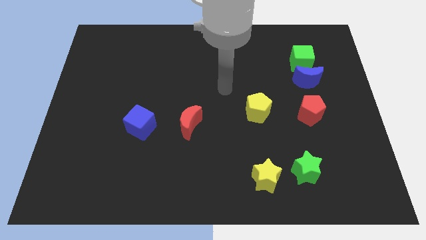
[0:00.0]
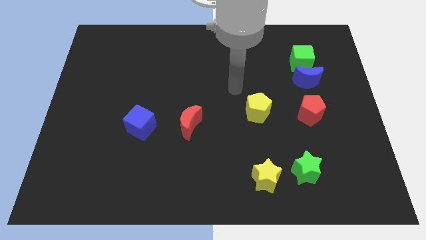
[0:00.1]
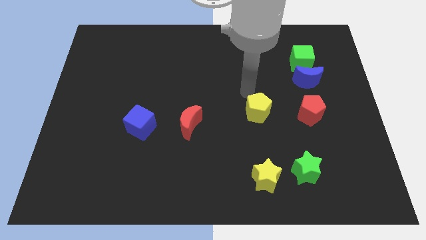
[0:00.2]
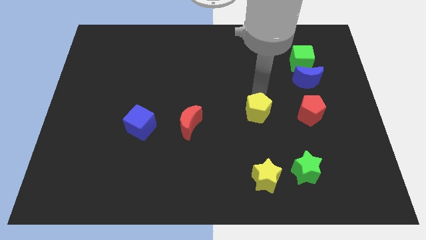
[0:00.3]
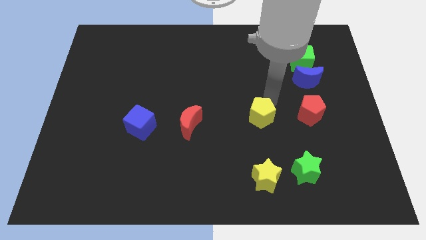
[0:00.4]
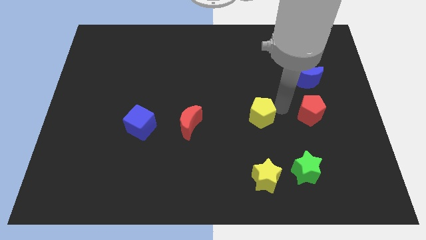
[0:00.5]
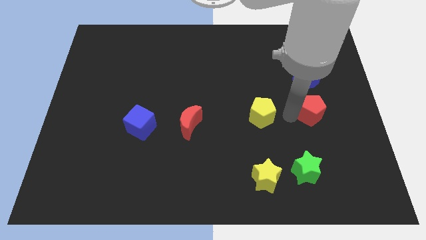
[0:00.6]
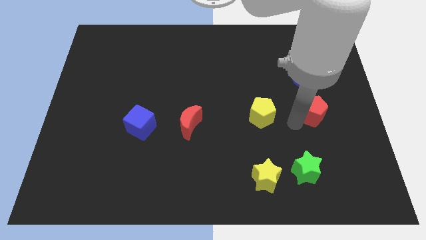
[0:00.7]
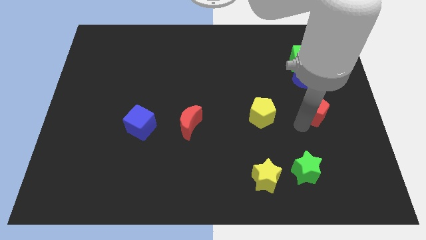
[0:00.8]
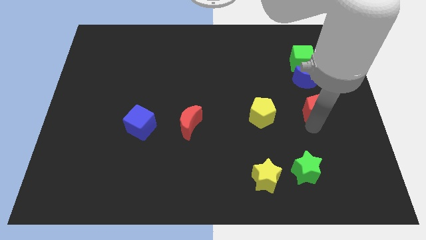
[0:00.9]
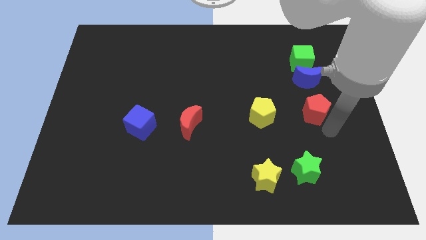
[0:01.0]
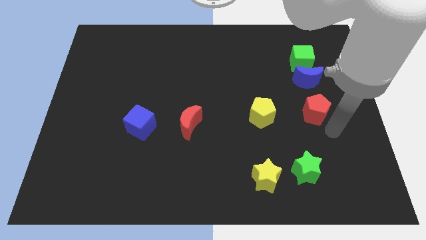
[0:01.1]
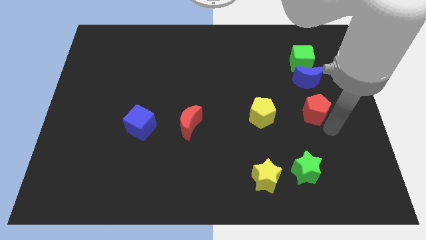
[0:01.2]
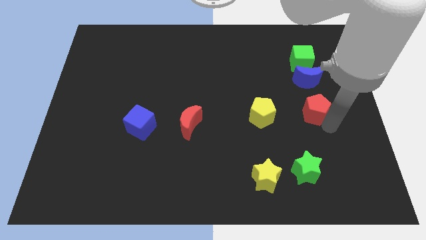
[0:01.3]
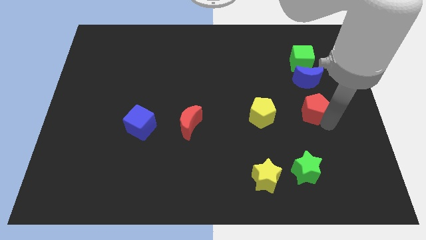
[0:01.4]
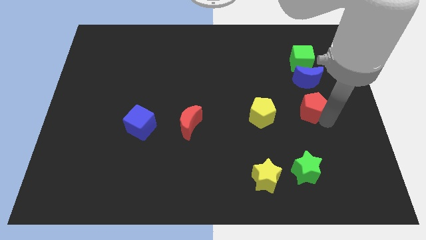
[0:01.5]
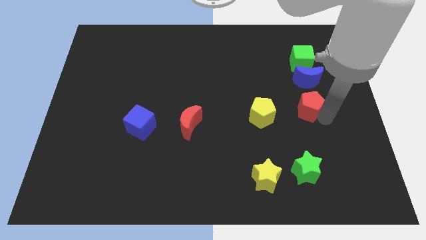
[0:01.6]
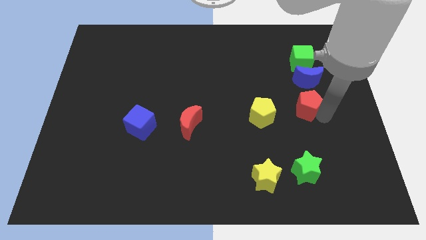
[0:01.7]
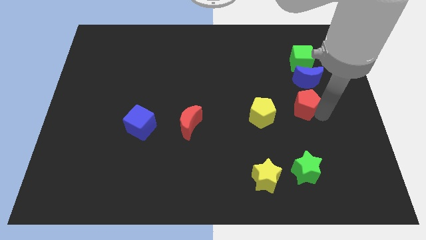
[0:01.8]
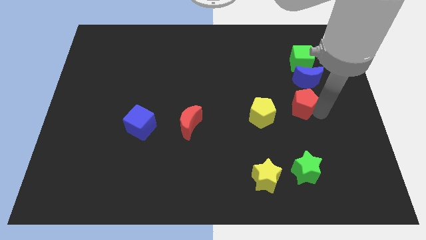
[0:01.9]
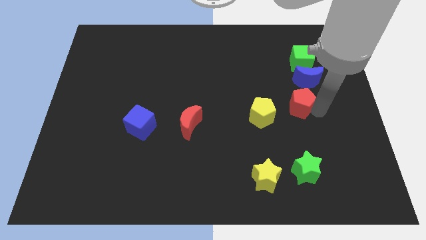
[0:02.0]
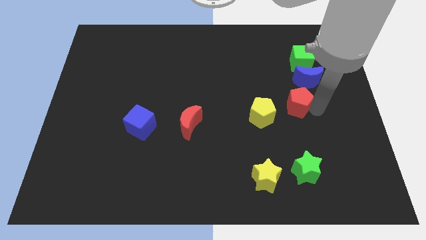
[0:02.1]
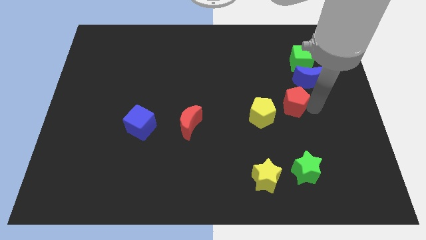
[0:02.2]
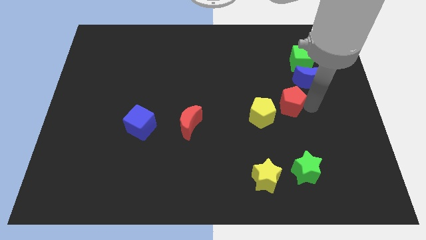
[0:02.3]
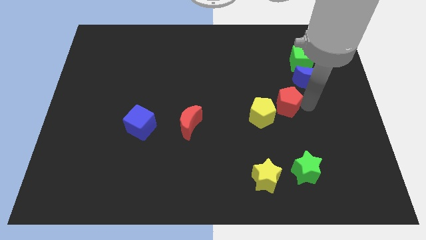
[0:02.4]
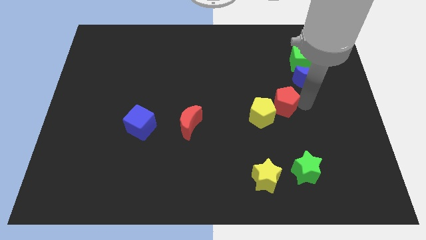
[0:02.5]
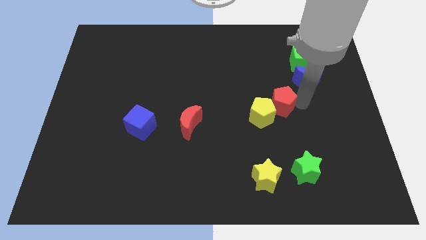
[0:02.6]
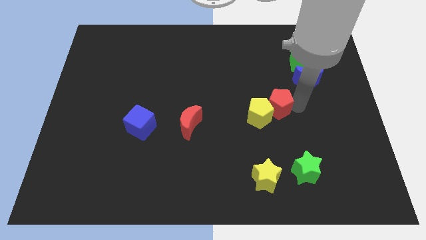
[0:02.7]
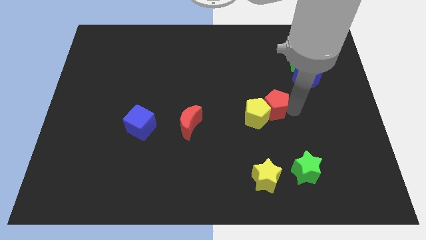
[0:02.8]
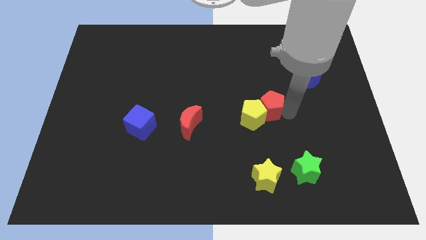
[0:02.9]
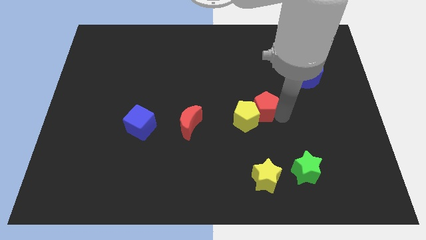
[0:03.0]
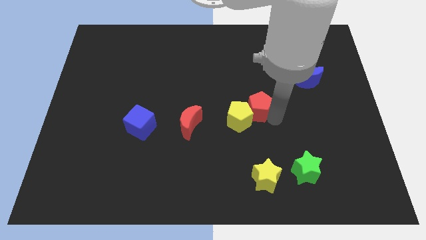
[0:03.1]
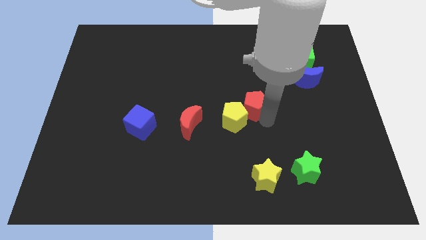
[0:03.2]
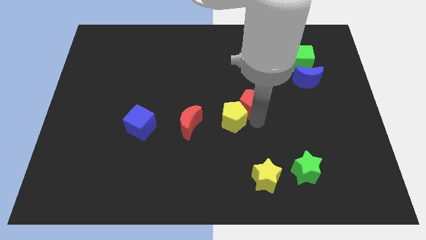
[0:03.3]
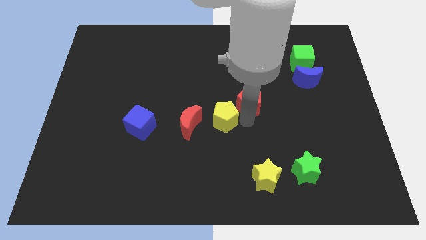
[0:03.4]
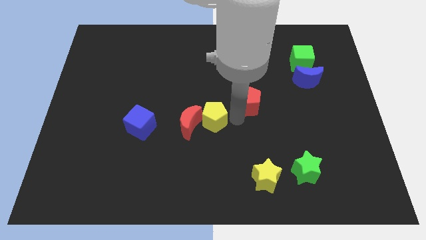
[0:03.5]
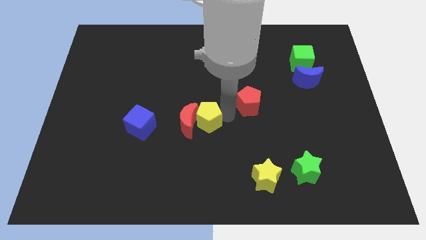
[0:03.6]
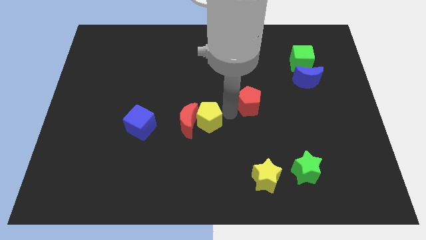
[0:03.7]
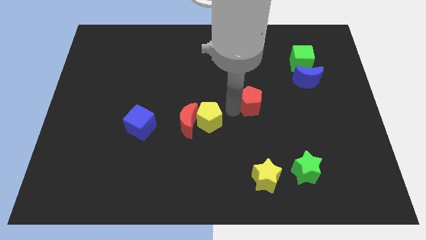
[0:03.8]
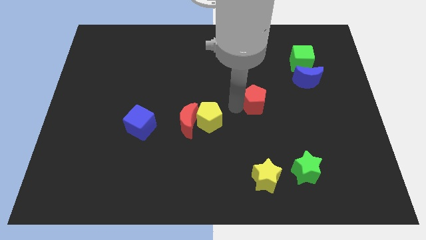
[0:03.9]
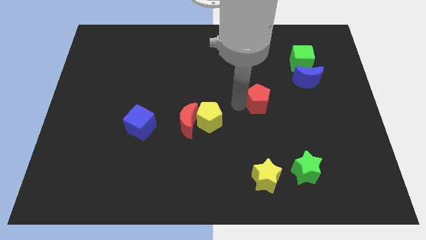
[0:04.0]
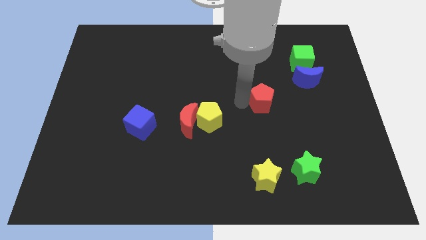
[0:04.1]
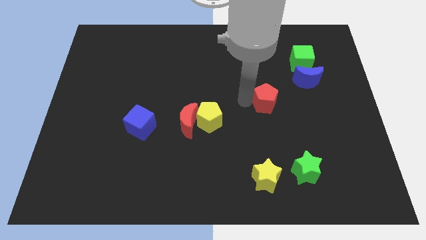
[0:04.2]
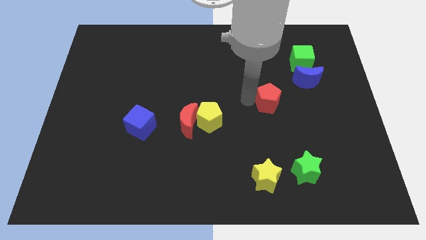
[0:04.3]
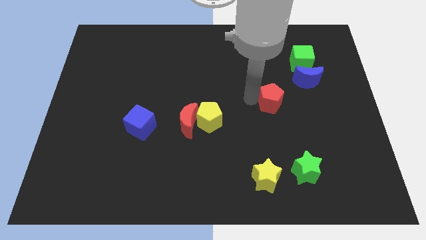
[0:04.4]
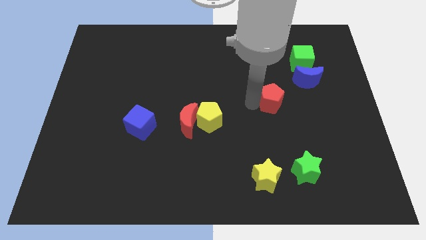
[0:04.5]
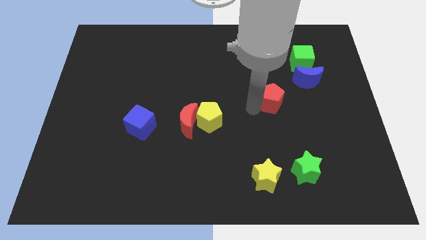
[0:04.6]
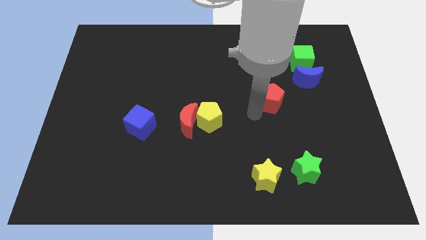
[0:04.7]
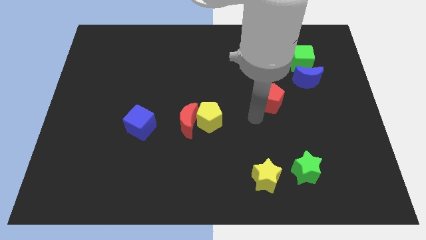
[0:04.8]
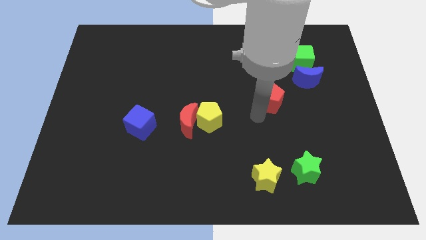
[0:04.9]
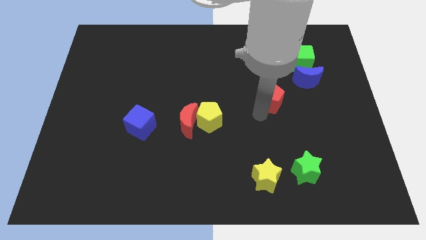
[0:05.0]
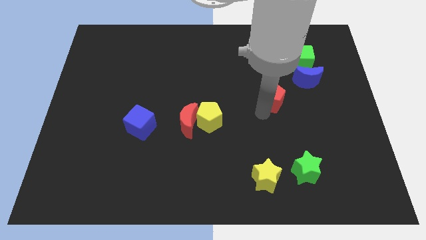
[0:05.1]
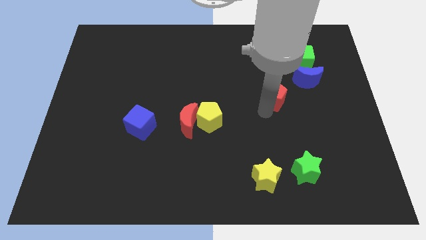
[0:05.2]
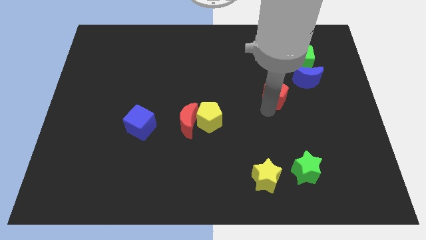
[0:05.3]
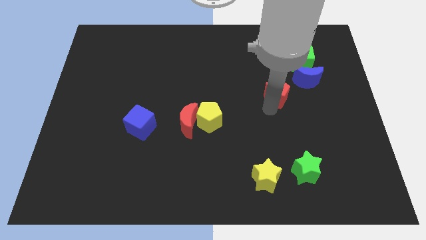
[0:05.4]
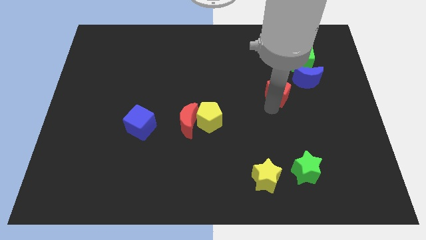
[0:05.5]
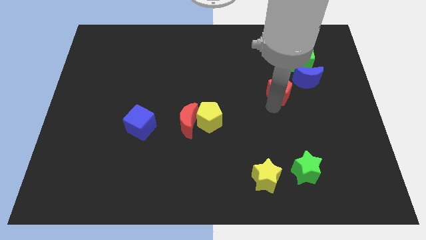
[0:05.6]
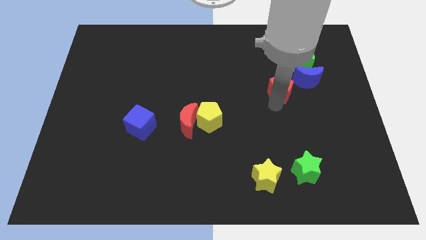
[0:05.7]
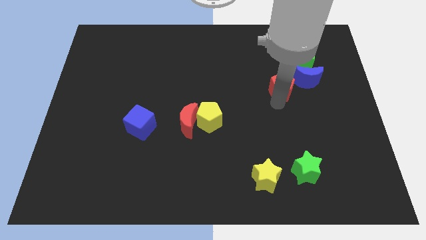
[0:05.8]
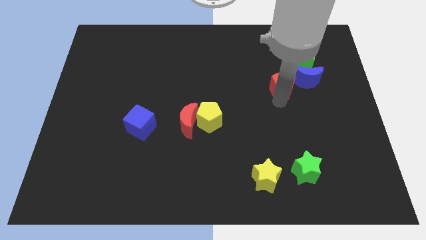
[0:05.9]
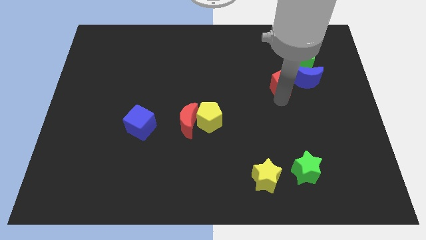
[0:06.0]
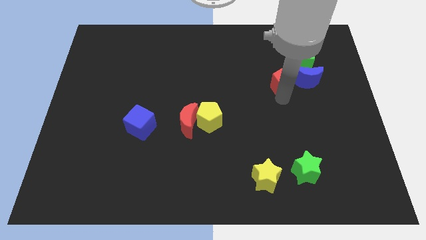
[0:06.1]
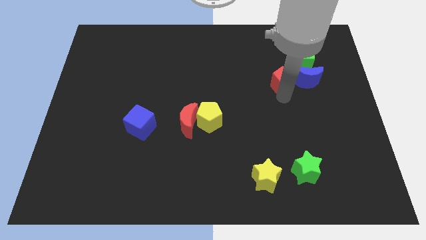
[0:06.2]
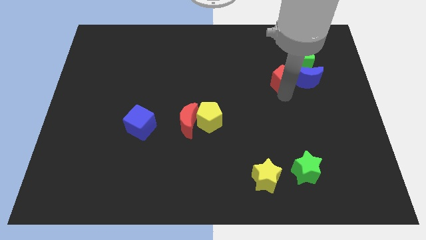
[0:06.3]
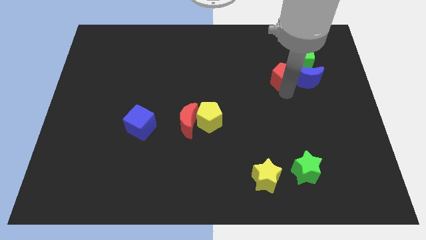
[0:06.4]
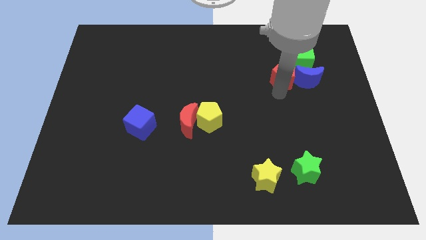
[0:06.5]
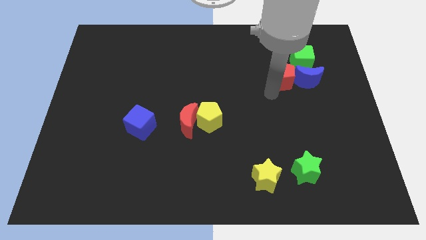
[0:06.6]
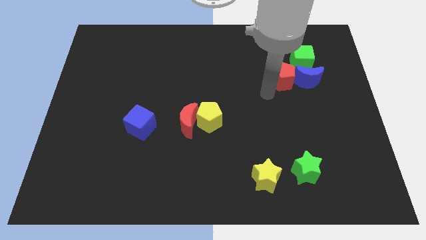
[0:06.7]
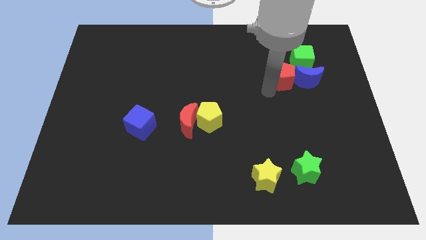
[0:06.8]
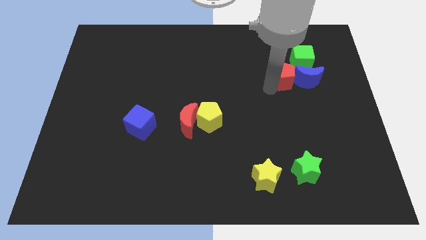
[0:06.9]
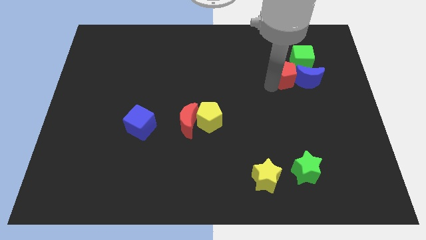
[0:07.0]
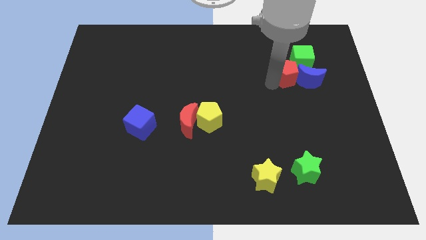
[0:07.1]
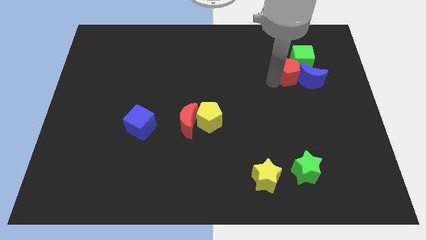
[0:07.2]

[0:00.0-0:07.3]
slide the red pentagon close to the green cube
